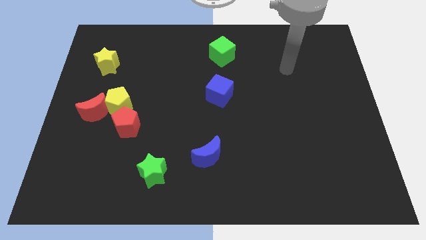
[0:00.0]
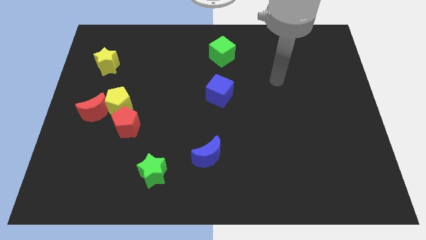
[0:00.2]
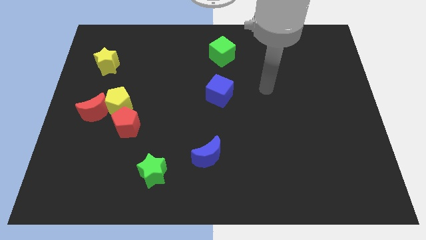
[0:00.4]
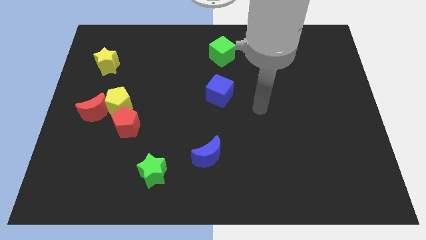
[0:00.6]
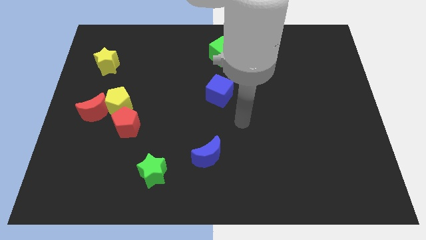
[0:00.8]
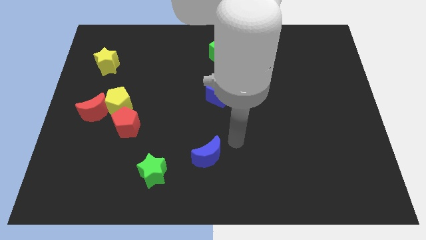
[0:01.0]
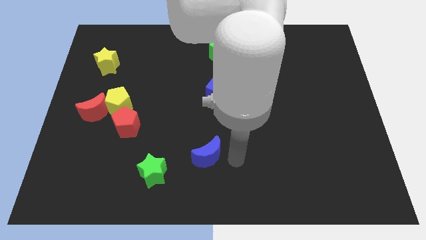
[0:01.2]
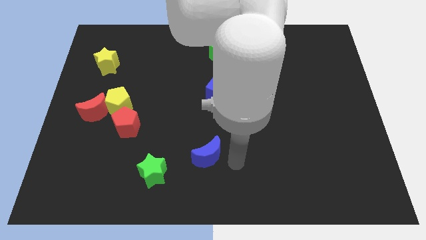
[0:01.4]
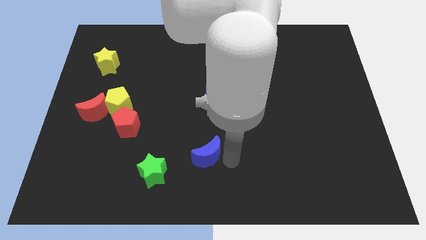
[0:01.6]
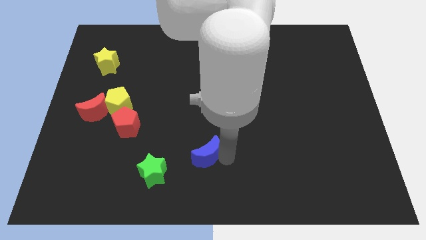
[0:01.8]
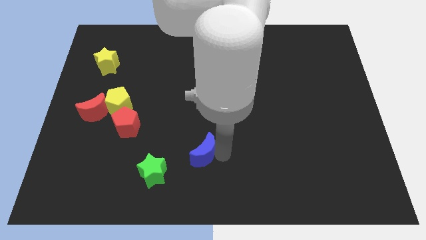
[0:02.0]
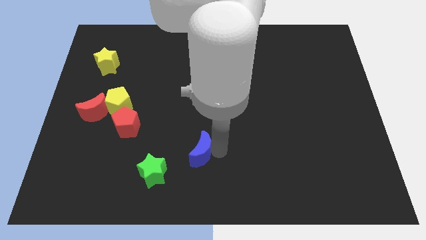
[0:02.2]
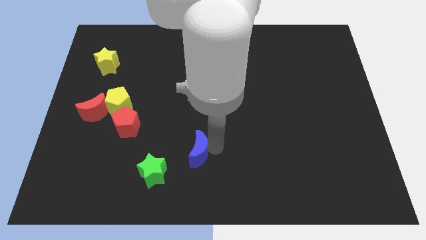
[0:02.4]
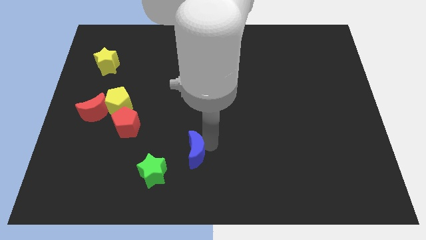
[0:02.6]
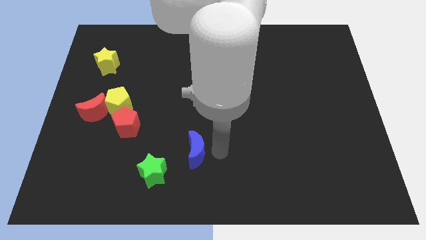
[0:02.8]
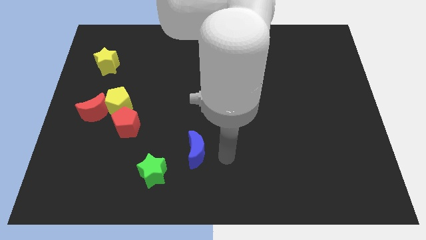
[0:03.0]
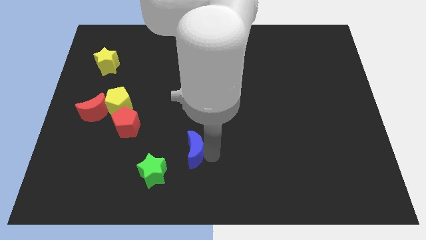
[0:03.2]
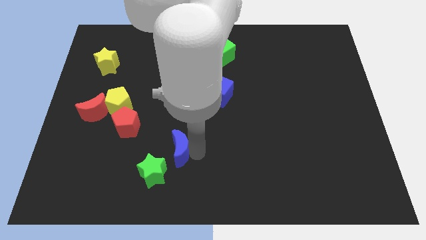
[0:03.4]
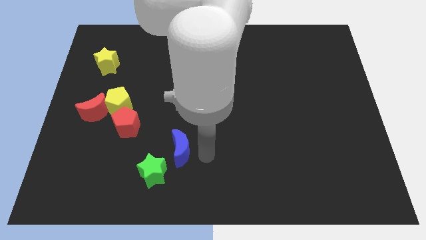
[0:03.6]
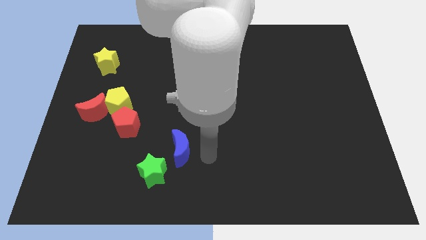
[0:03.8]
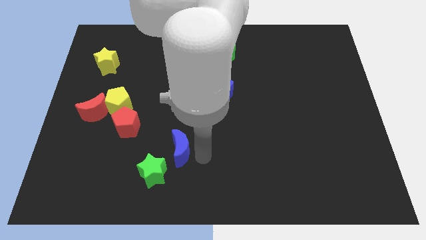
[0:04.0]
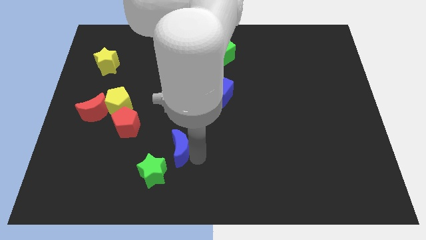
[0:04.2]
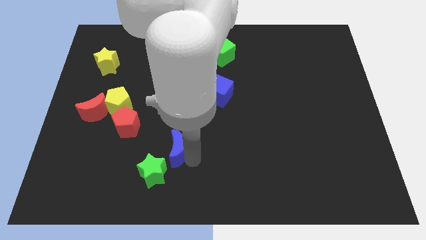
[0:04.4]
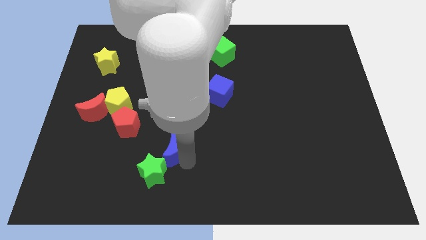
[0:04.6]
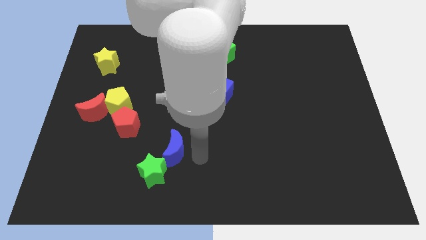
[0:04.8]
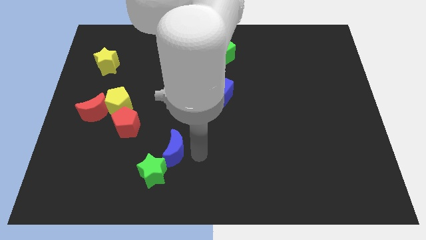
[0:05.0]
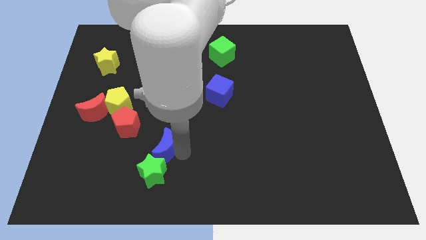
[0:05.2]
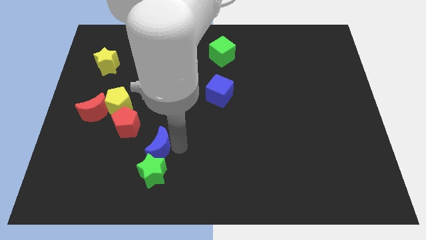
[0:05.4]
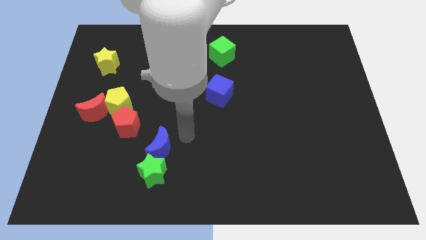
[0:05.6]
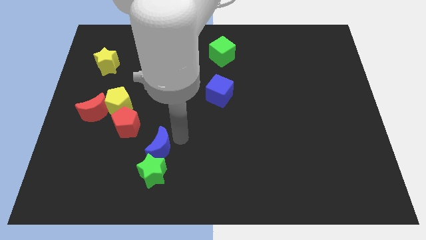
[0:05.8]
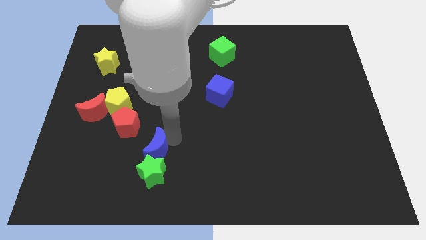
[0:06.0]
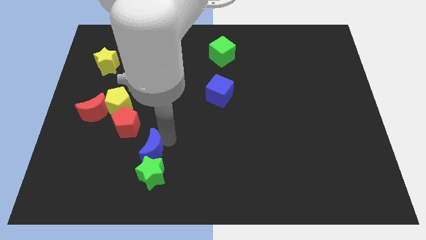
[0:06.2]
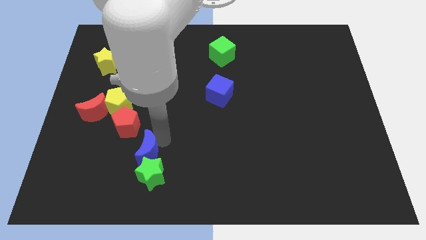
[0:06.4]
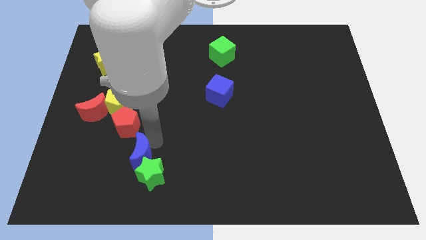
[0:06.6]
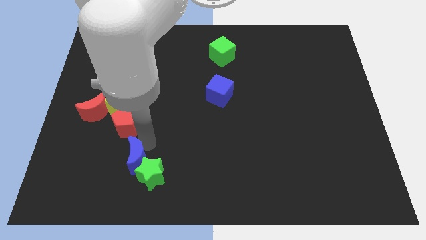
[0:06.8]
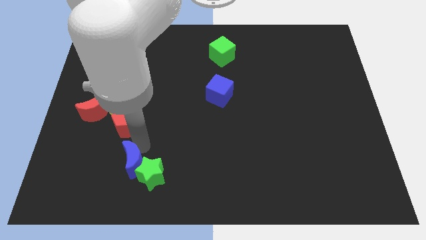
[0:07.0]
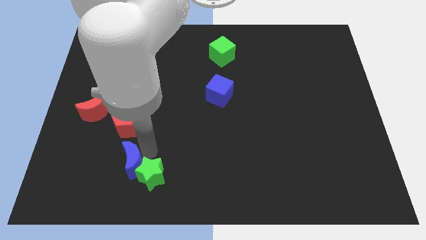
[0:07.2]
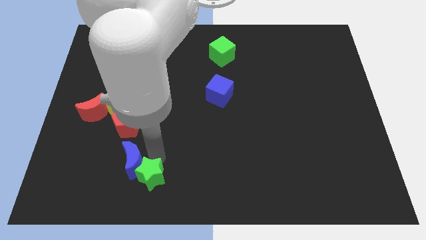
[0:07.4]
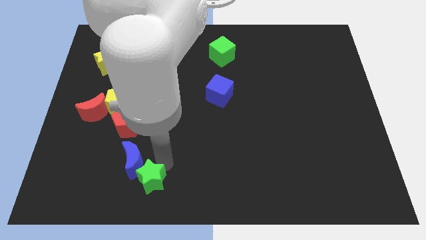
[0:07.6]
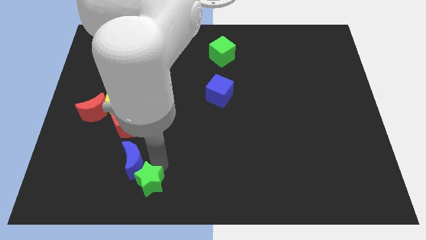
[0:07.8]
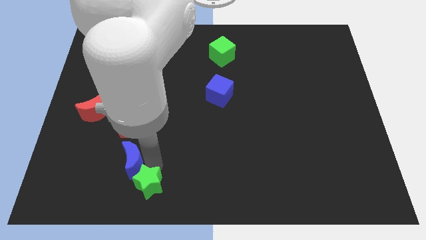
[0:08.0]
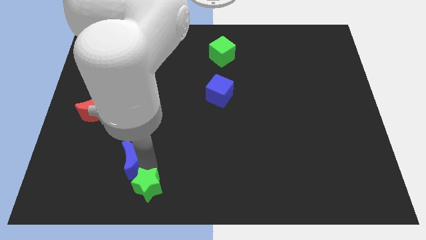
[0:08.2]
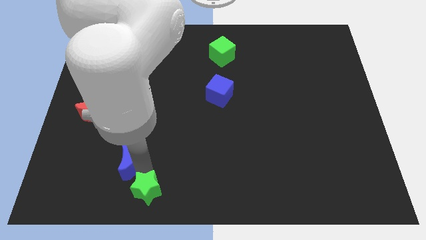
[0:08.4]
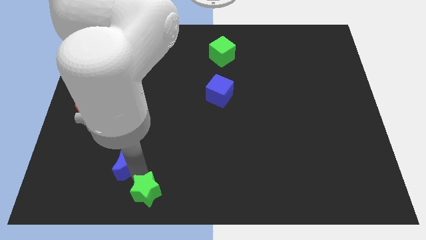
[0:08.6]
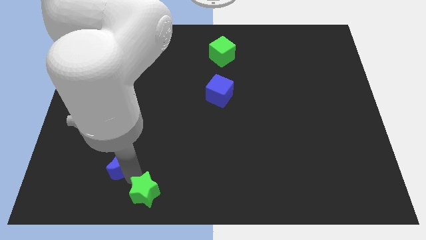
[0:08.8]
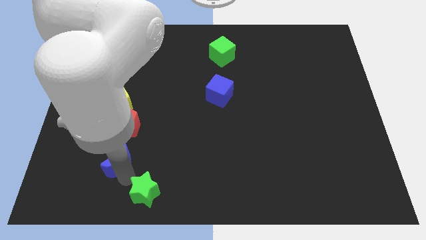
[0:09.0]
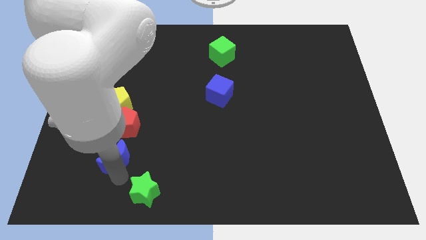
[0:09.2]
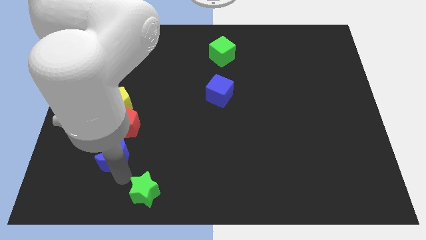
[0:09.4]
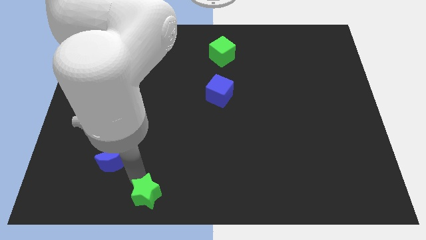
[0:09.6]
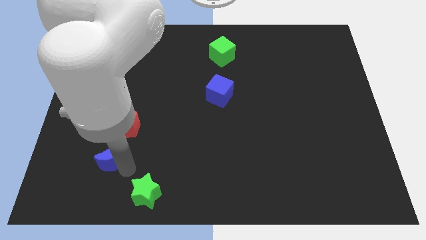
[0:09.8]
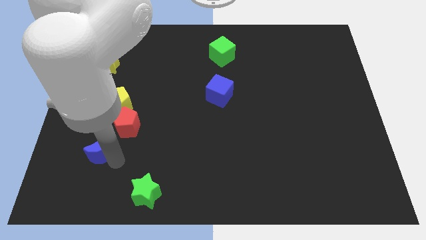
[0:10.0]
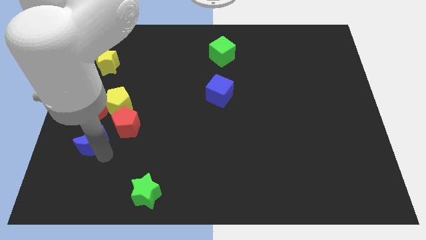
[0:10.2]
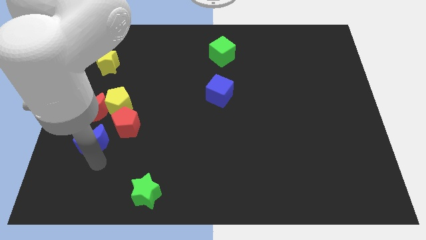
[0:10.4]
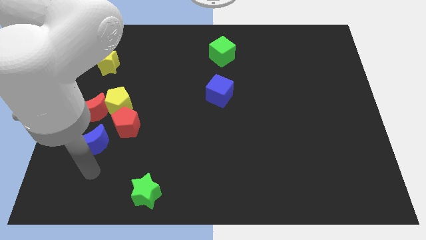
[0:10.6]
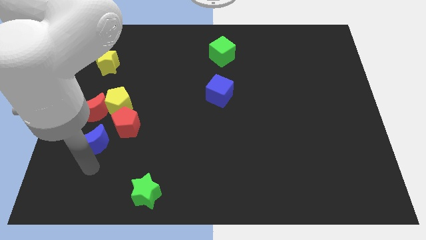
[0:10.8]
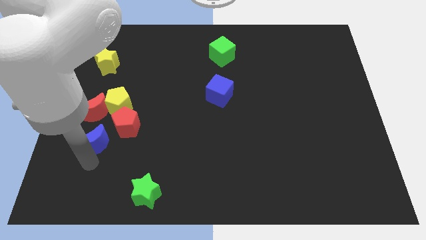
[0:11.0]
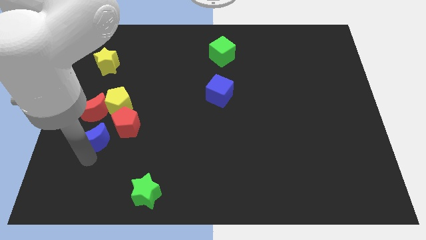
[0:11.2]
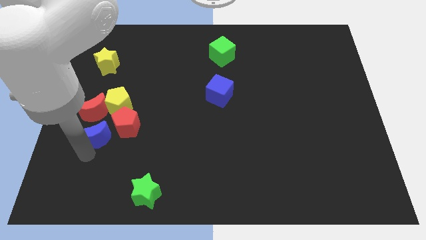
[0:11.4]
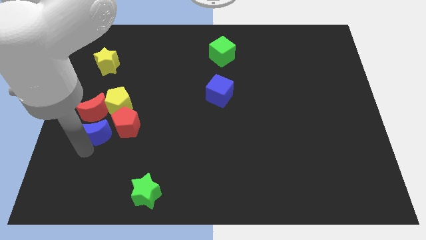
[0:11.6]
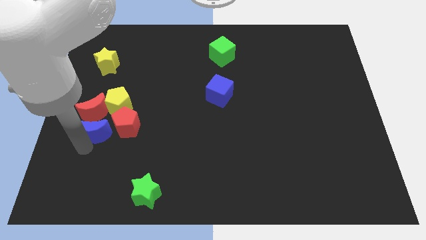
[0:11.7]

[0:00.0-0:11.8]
put the blue moon next to the red moon

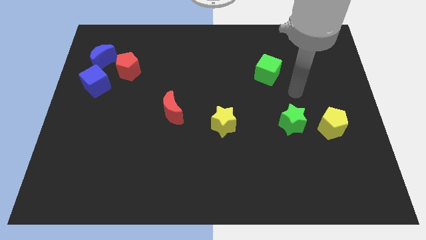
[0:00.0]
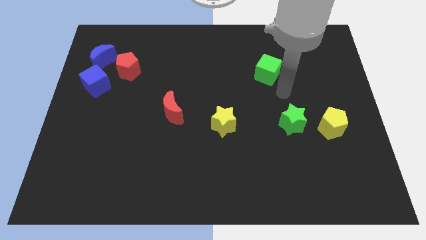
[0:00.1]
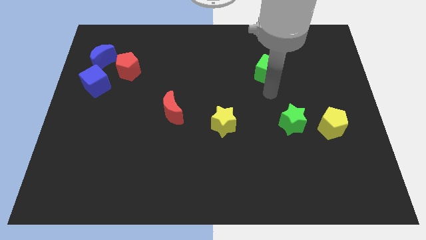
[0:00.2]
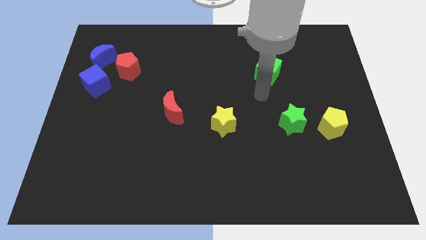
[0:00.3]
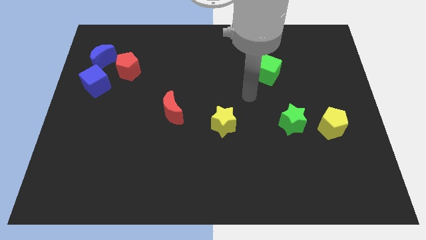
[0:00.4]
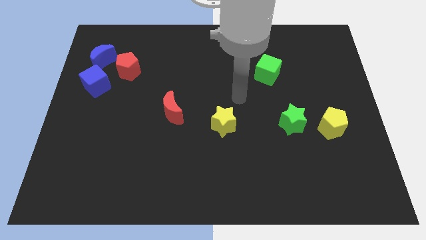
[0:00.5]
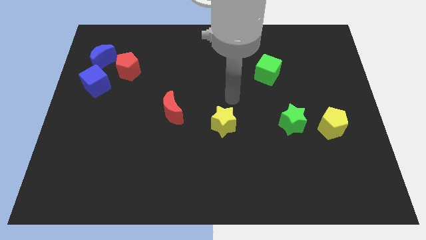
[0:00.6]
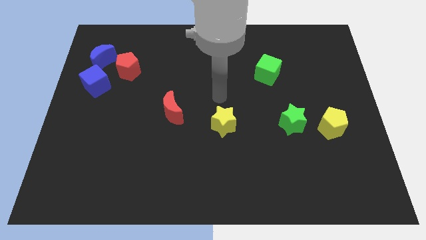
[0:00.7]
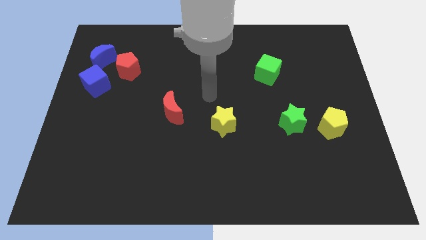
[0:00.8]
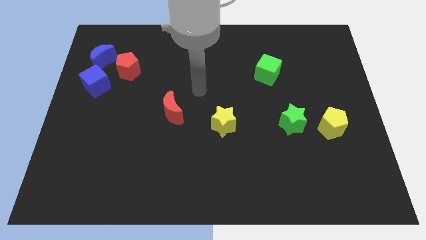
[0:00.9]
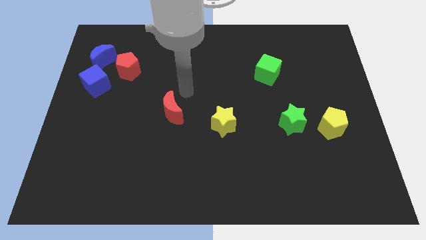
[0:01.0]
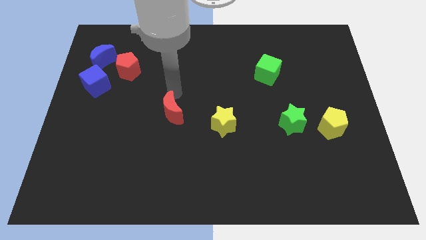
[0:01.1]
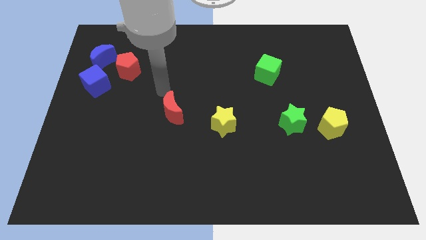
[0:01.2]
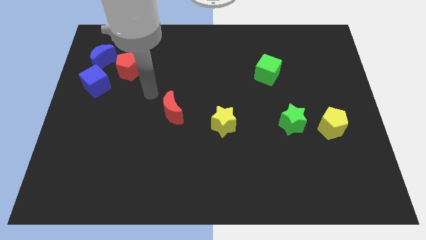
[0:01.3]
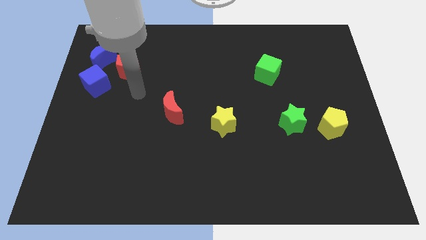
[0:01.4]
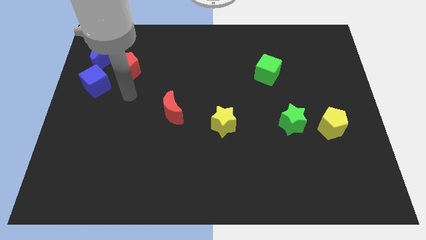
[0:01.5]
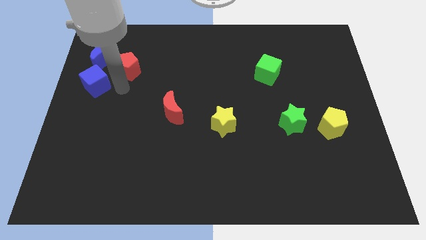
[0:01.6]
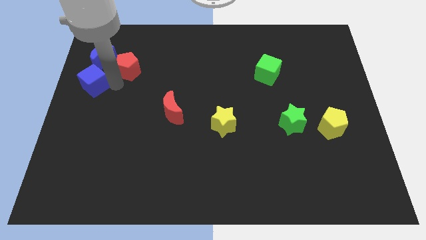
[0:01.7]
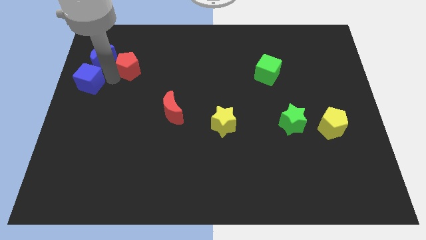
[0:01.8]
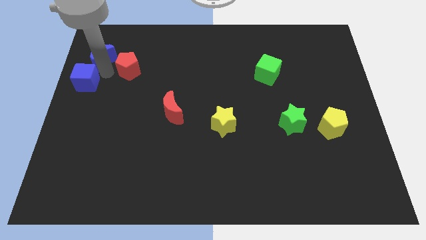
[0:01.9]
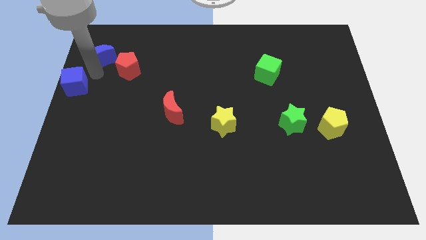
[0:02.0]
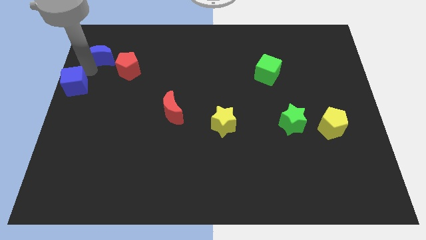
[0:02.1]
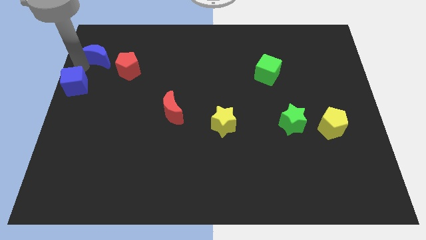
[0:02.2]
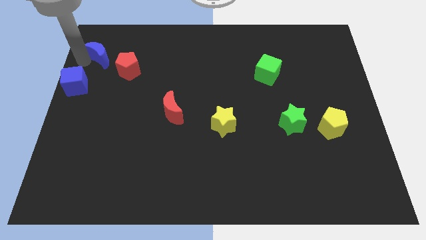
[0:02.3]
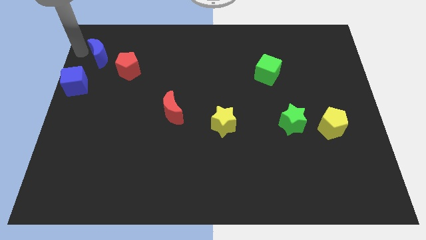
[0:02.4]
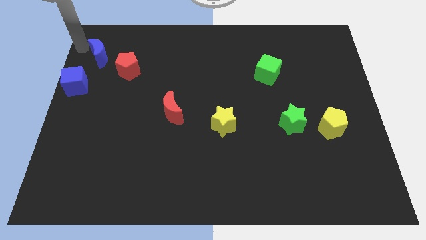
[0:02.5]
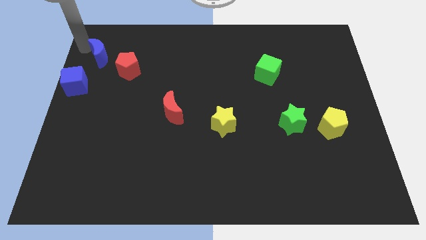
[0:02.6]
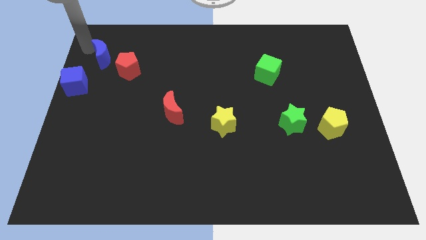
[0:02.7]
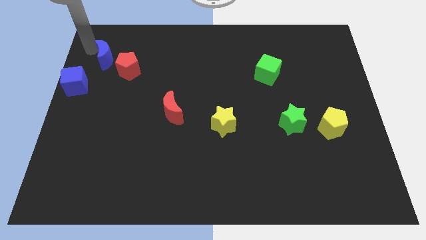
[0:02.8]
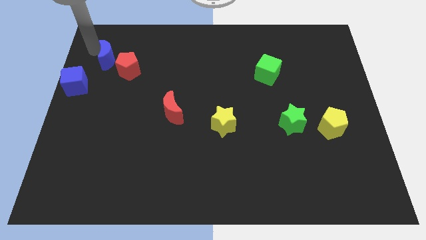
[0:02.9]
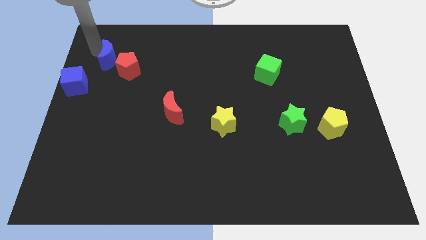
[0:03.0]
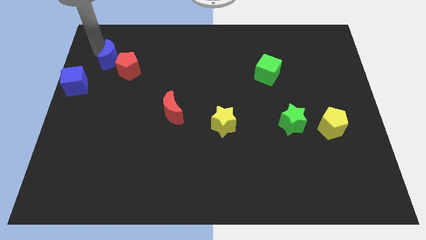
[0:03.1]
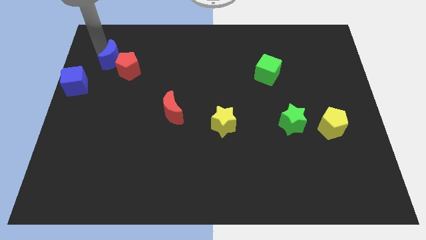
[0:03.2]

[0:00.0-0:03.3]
push the blue moon close to the red pentagon
